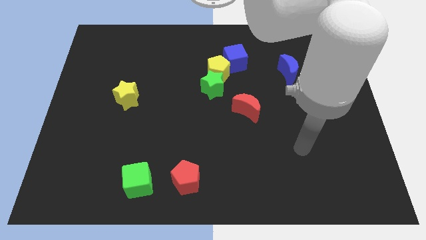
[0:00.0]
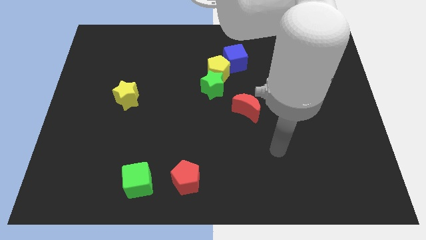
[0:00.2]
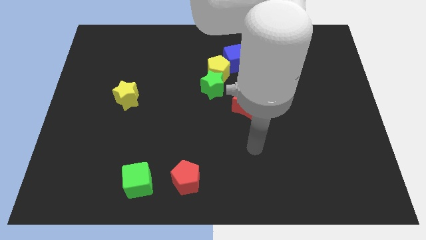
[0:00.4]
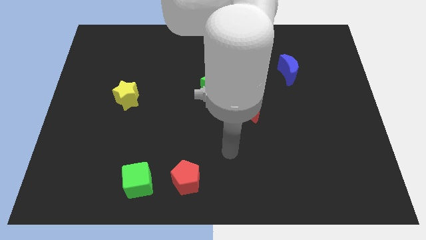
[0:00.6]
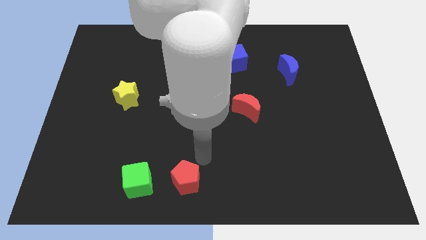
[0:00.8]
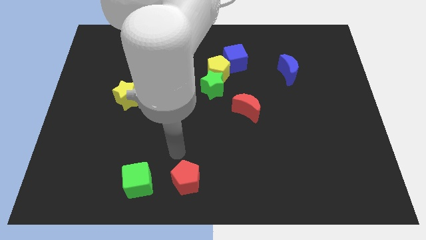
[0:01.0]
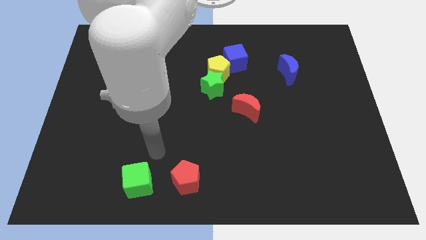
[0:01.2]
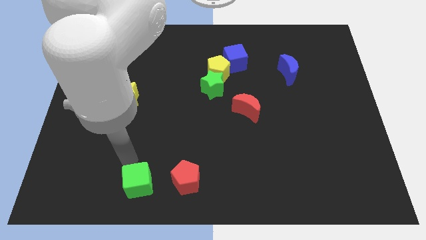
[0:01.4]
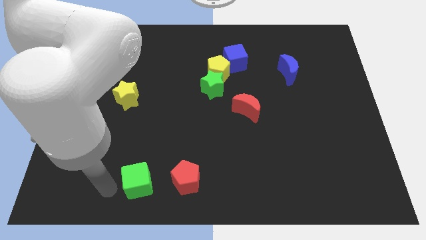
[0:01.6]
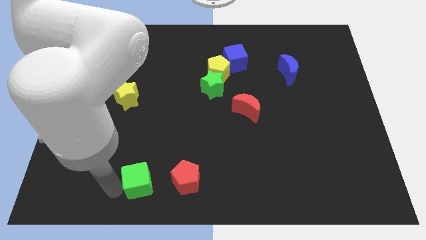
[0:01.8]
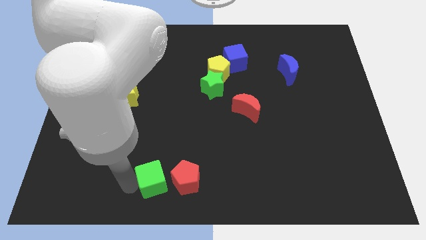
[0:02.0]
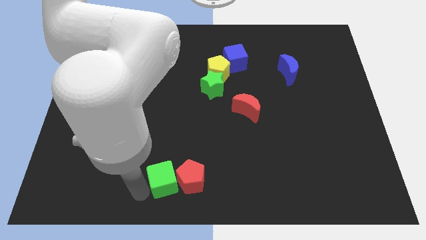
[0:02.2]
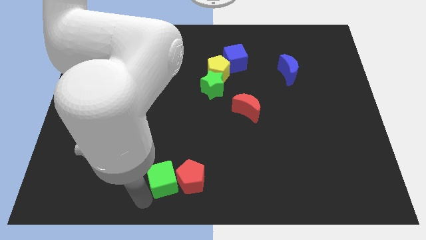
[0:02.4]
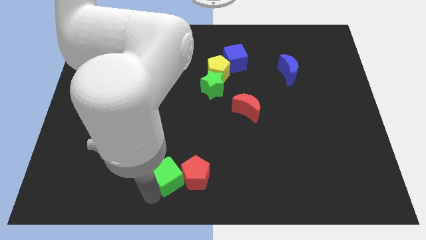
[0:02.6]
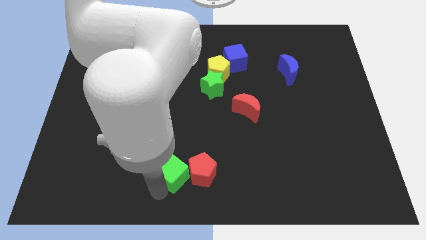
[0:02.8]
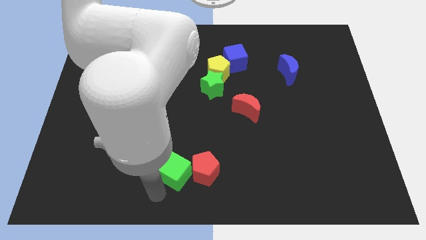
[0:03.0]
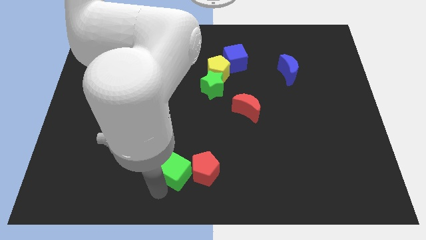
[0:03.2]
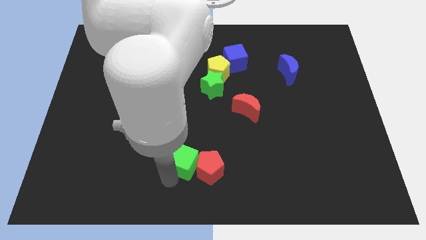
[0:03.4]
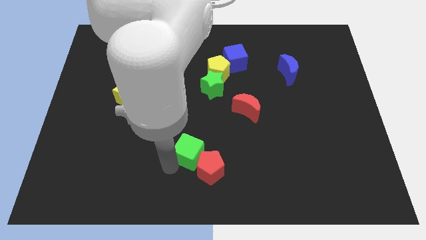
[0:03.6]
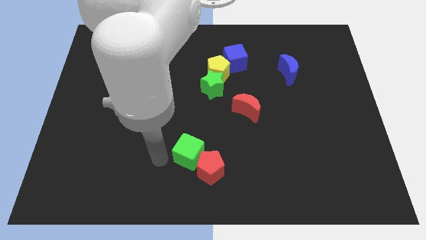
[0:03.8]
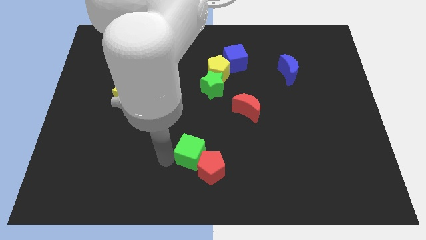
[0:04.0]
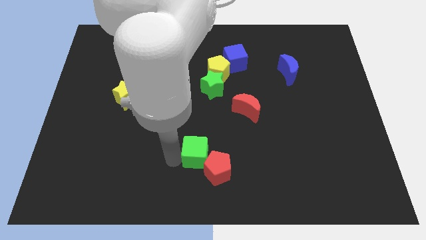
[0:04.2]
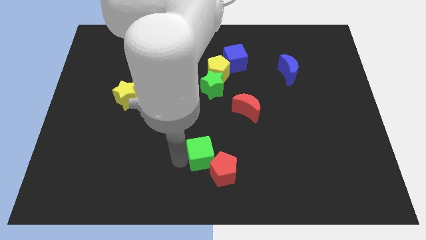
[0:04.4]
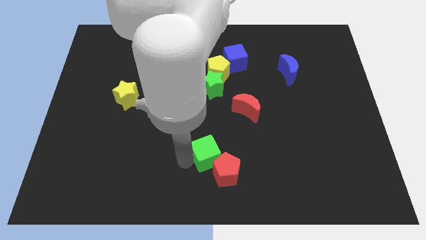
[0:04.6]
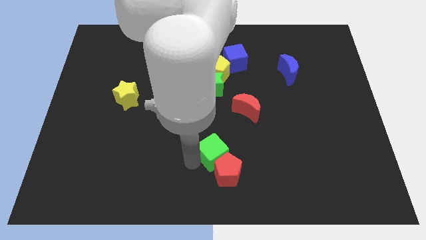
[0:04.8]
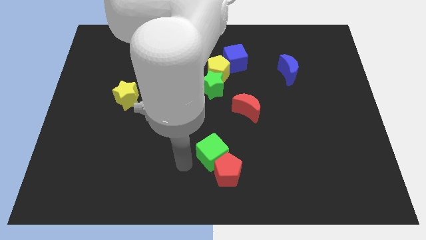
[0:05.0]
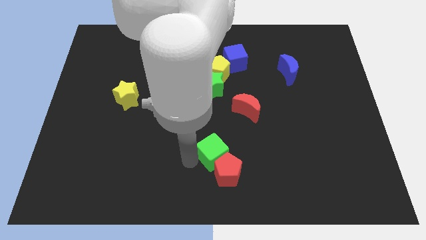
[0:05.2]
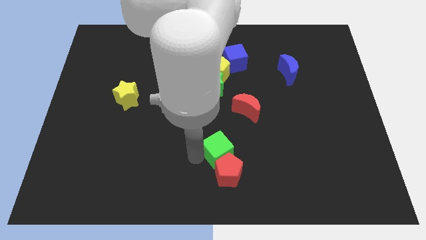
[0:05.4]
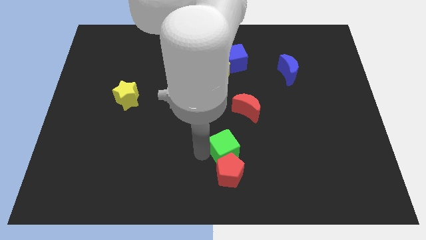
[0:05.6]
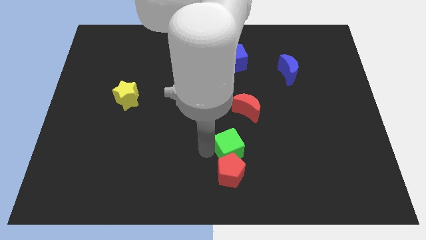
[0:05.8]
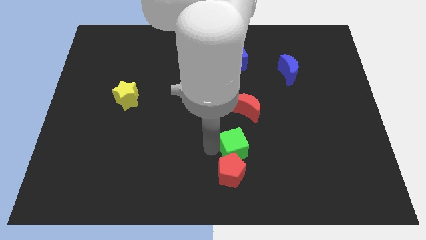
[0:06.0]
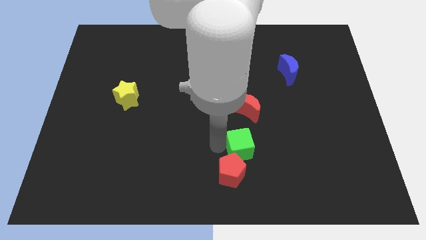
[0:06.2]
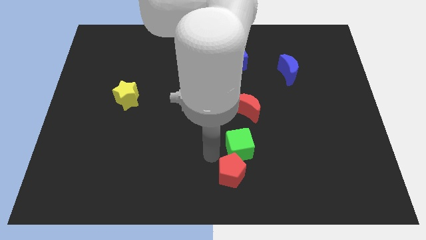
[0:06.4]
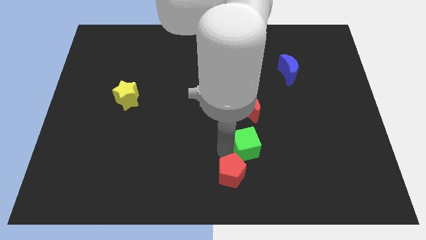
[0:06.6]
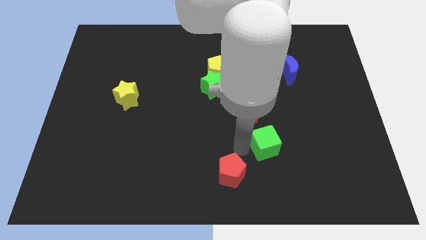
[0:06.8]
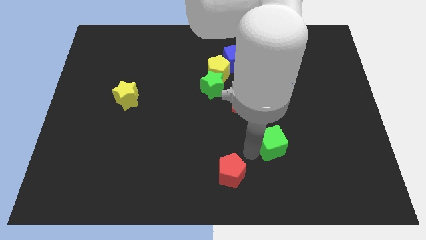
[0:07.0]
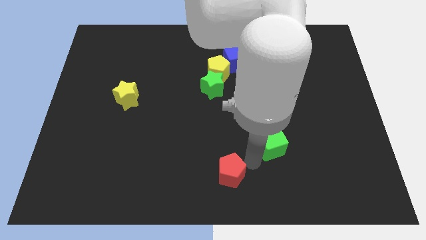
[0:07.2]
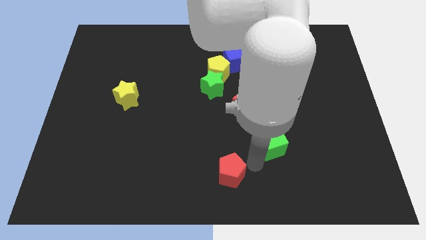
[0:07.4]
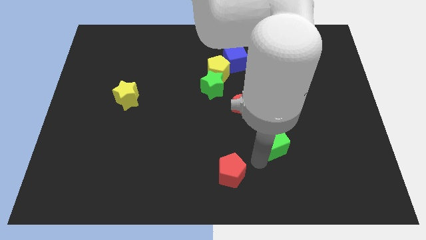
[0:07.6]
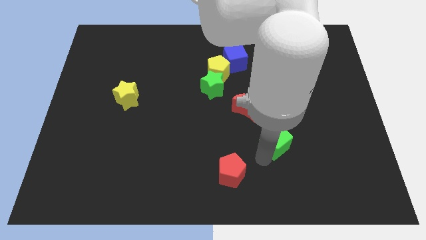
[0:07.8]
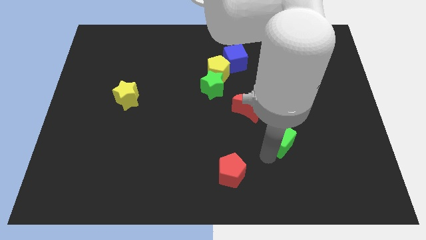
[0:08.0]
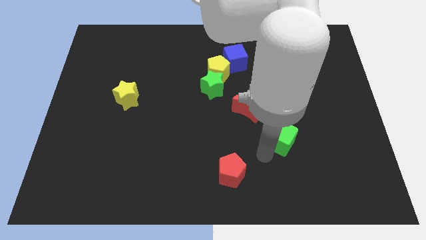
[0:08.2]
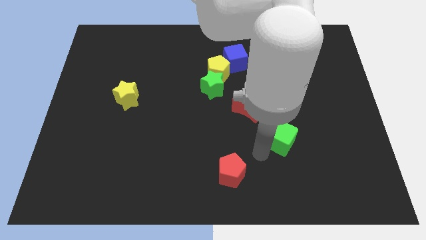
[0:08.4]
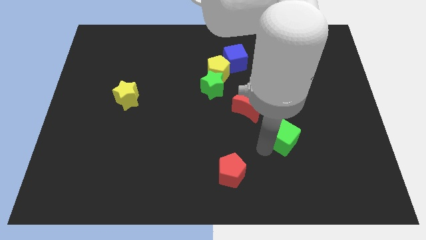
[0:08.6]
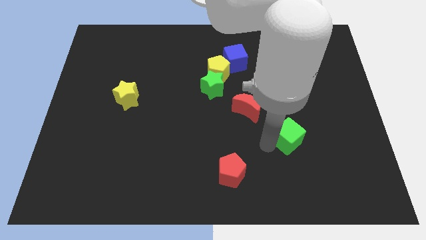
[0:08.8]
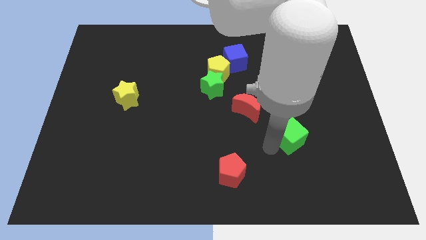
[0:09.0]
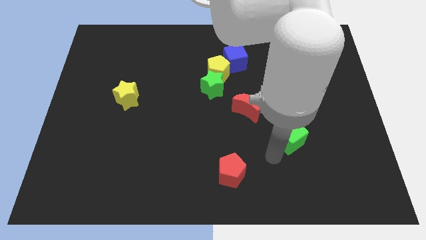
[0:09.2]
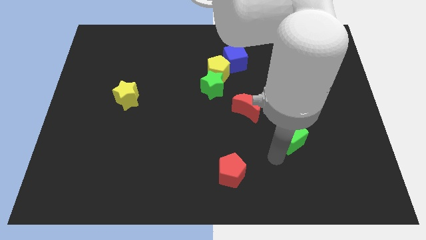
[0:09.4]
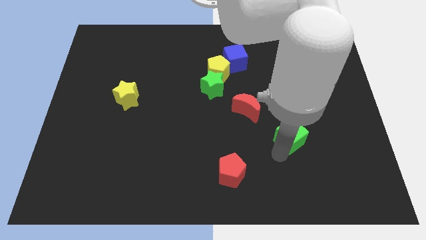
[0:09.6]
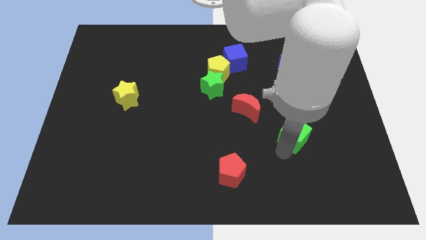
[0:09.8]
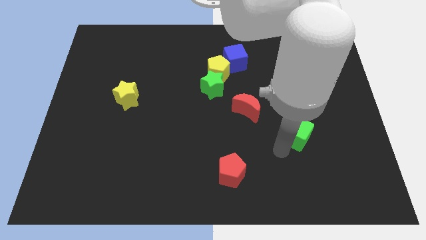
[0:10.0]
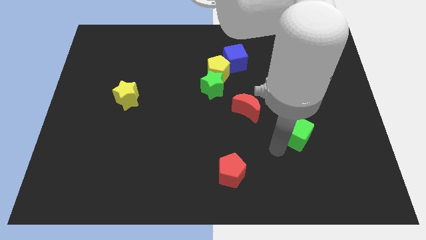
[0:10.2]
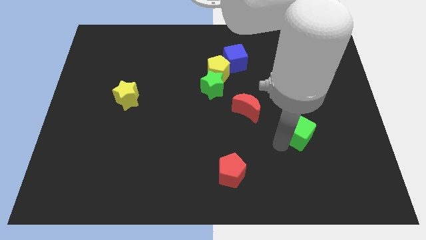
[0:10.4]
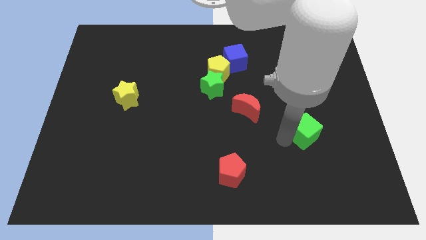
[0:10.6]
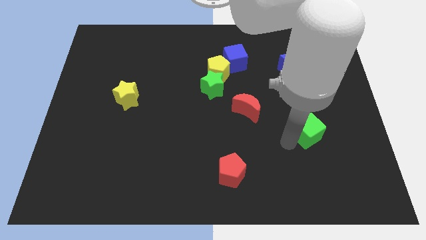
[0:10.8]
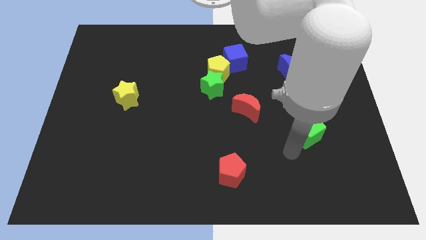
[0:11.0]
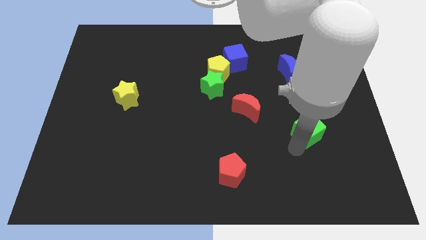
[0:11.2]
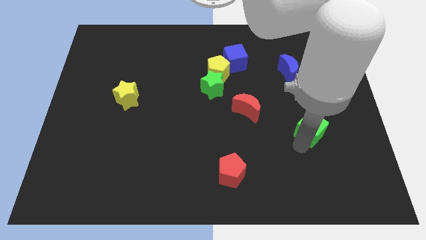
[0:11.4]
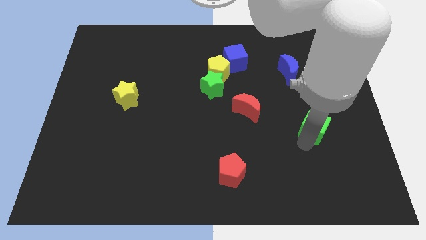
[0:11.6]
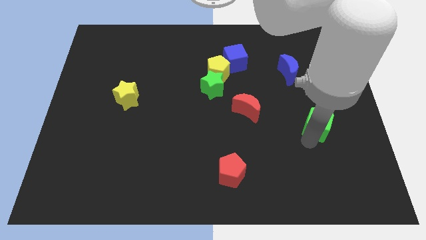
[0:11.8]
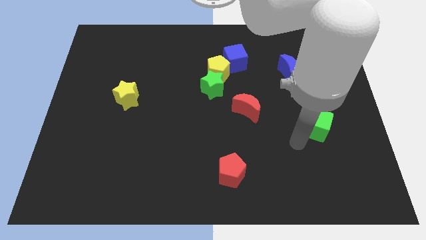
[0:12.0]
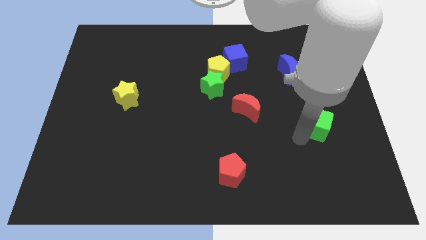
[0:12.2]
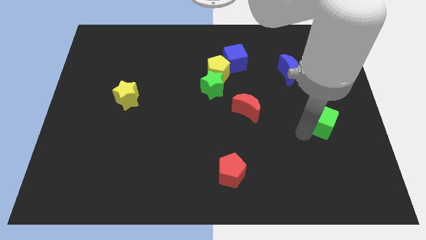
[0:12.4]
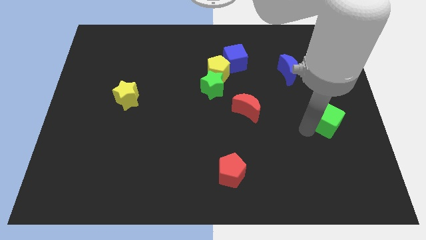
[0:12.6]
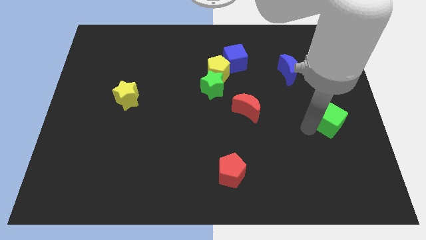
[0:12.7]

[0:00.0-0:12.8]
move the green cube to the right side
